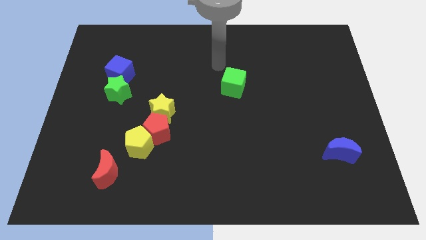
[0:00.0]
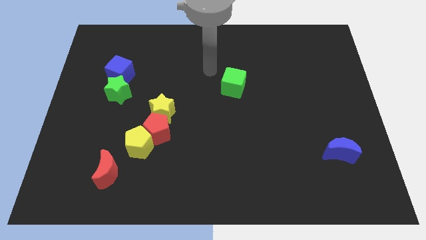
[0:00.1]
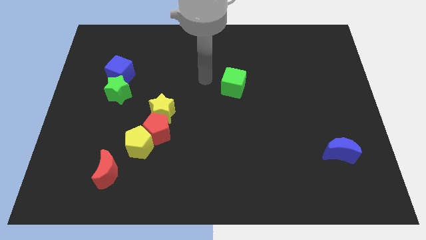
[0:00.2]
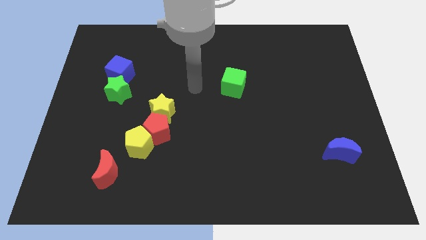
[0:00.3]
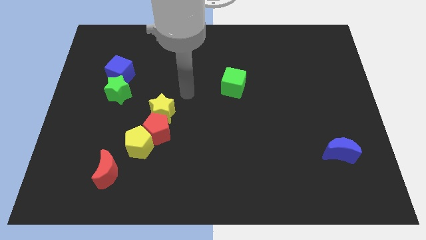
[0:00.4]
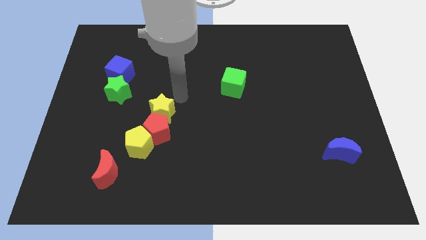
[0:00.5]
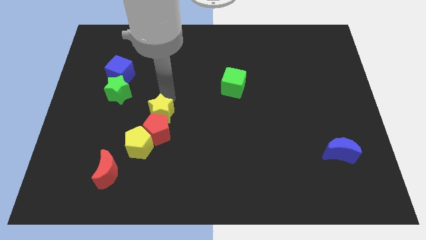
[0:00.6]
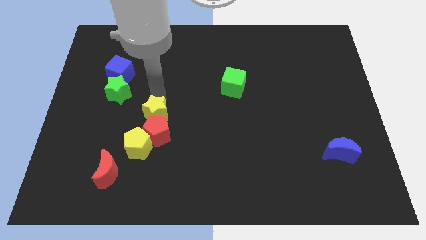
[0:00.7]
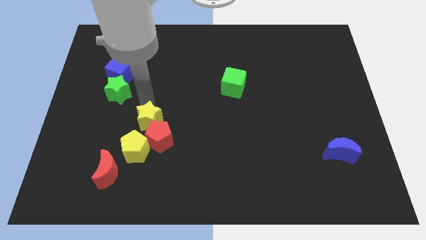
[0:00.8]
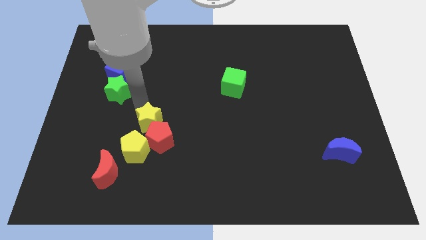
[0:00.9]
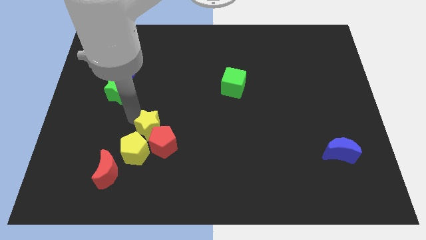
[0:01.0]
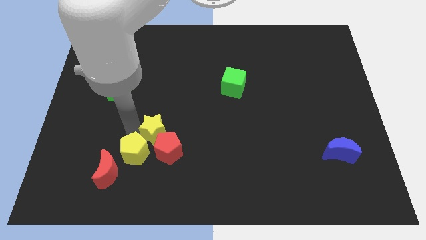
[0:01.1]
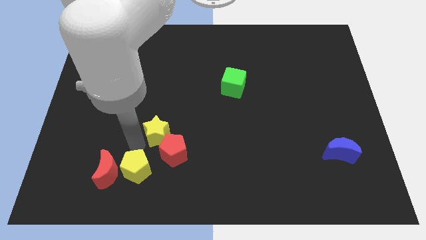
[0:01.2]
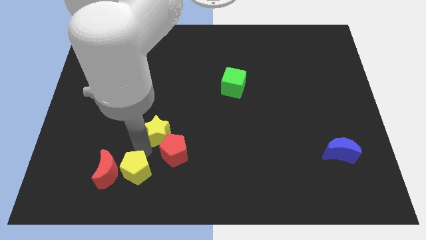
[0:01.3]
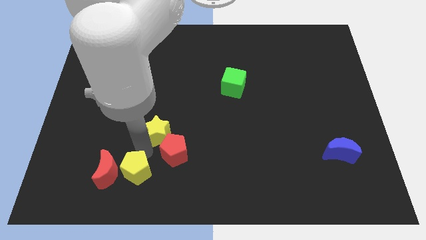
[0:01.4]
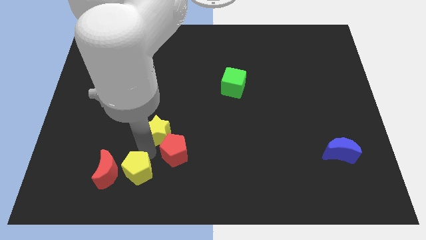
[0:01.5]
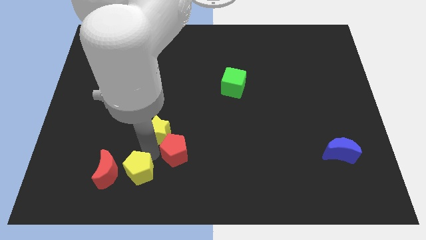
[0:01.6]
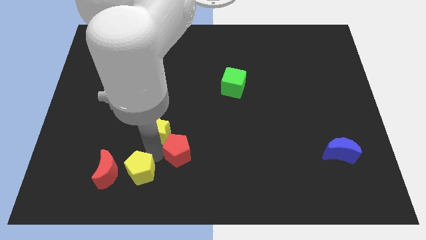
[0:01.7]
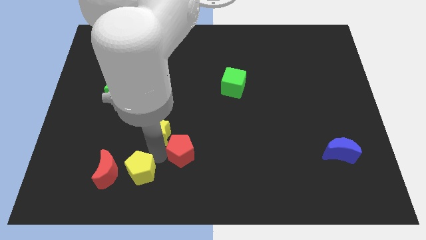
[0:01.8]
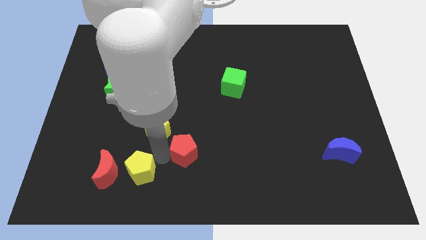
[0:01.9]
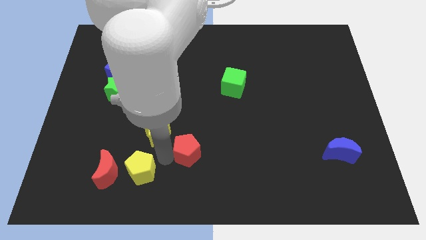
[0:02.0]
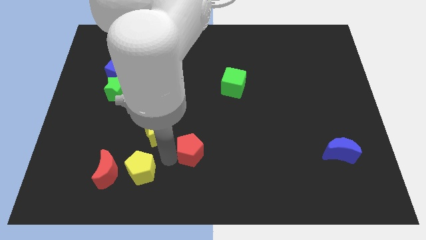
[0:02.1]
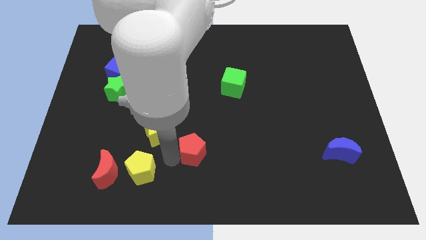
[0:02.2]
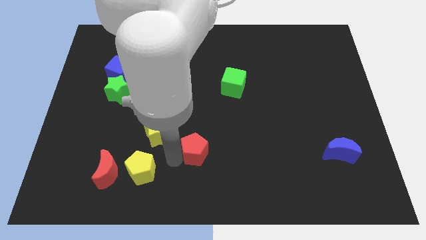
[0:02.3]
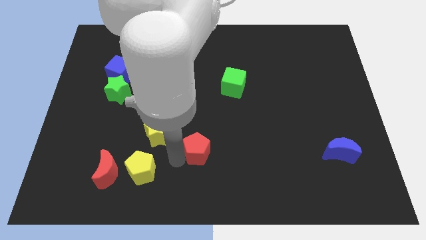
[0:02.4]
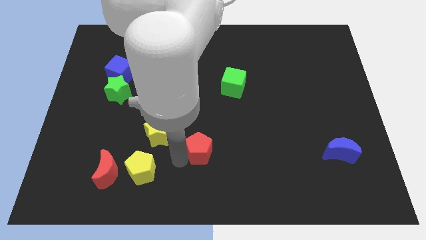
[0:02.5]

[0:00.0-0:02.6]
pull the red pentagon apart from the yellow pentagon and yellow star

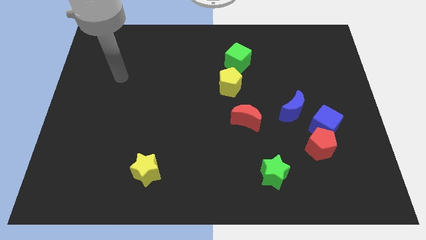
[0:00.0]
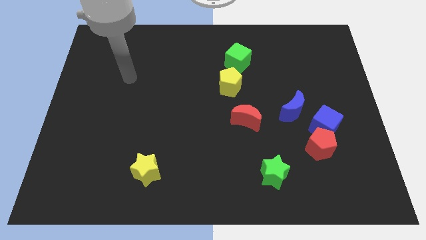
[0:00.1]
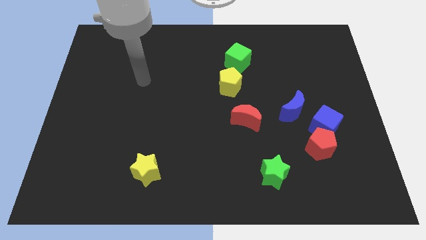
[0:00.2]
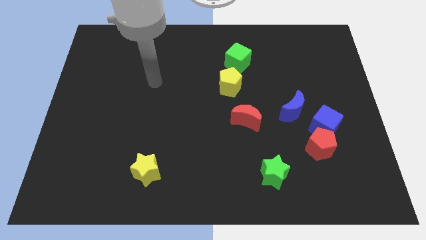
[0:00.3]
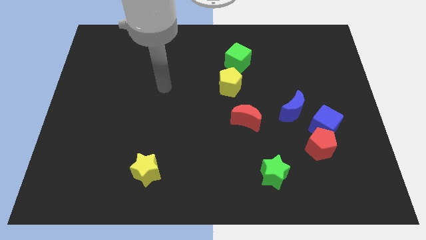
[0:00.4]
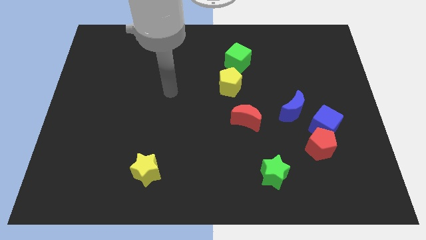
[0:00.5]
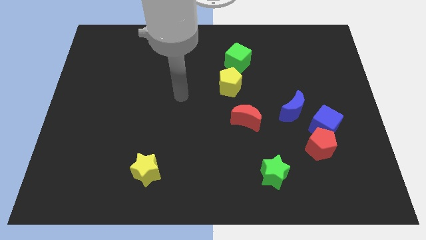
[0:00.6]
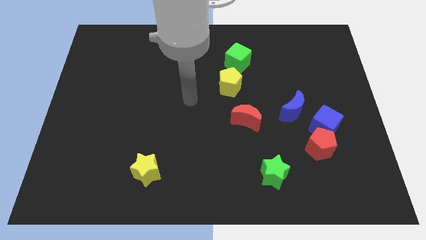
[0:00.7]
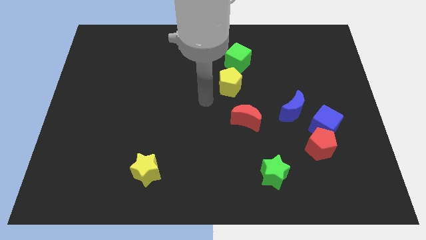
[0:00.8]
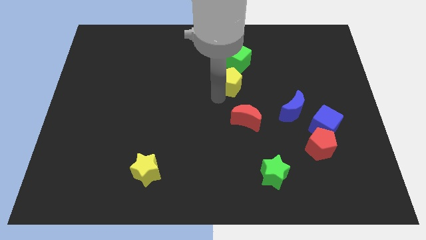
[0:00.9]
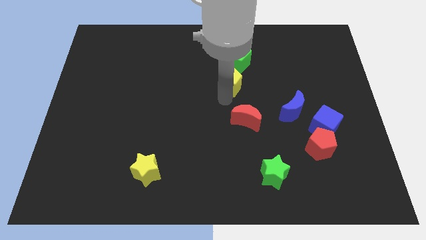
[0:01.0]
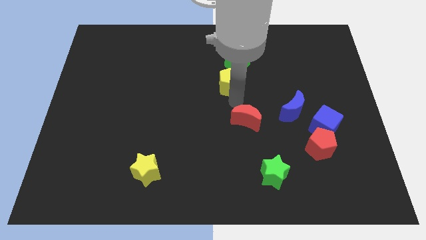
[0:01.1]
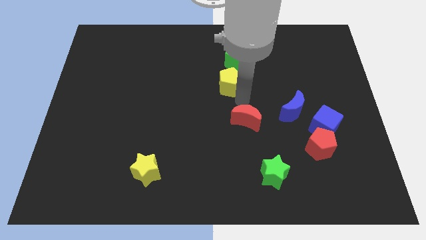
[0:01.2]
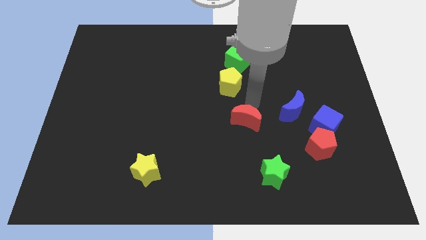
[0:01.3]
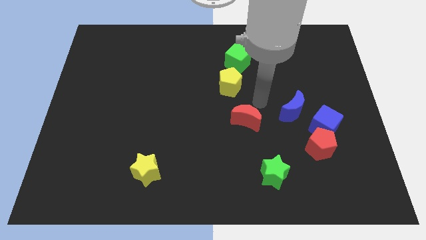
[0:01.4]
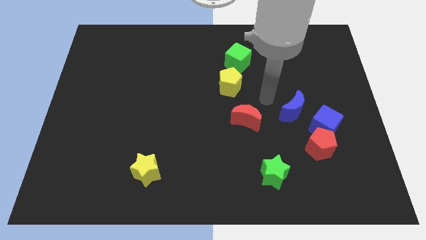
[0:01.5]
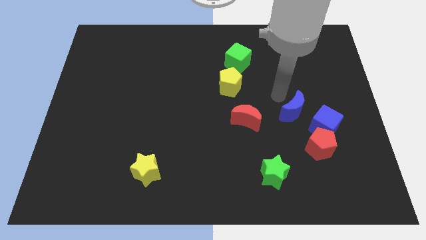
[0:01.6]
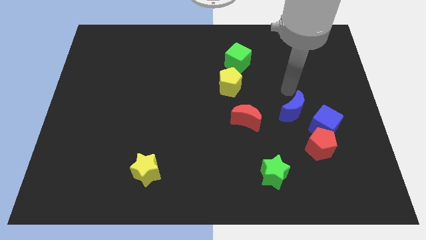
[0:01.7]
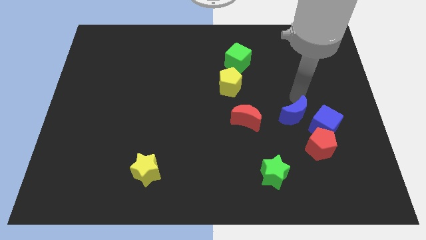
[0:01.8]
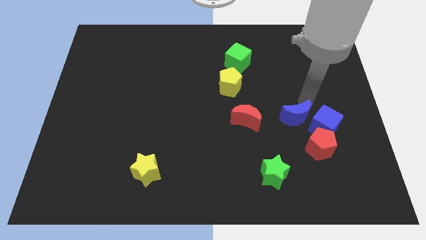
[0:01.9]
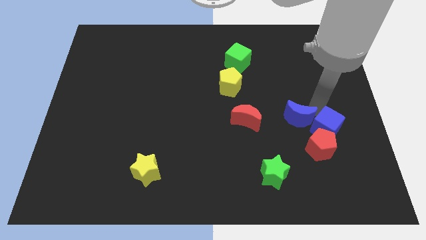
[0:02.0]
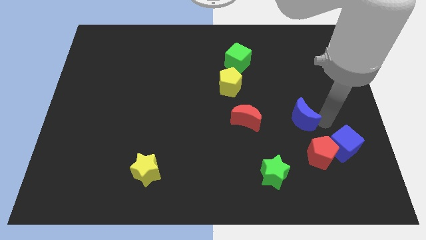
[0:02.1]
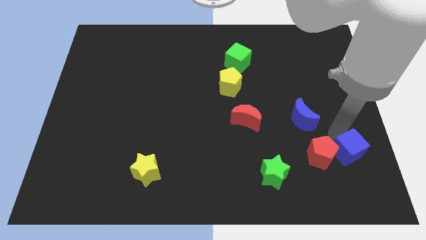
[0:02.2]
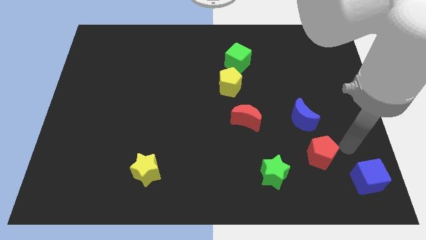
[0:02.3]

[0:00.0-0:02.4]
separate the red pentagon from the blue cube

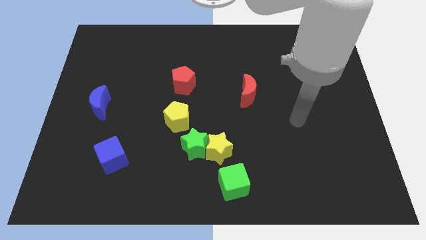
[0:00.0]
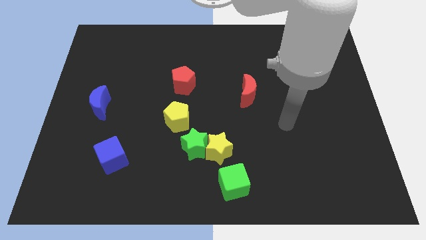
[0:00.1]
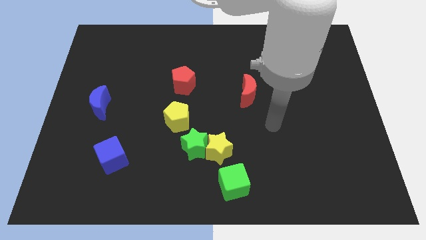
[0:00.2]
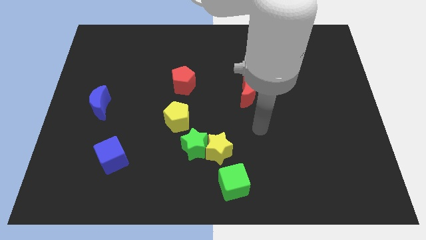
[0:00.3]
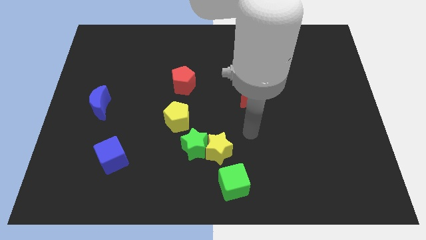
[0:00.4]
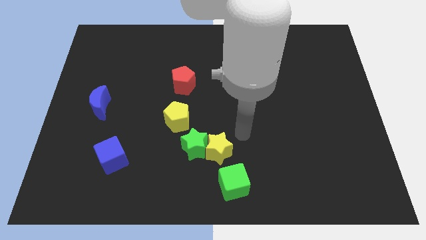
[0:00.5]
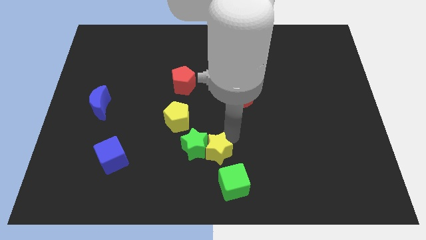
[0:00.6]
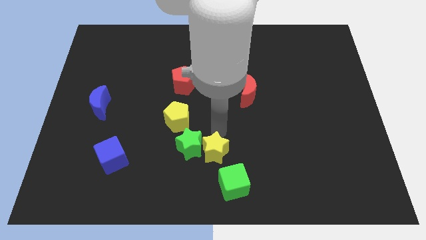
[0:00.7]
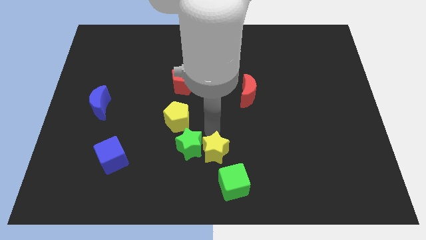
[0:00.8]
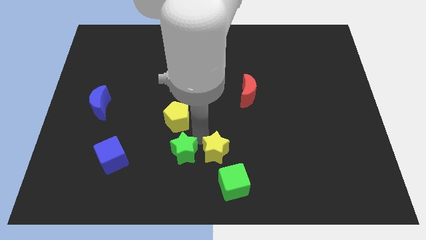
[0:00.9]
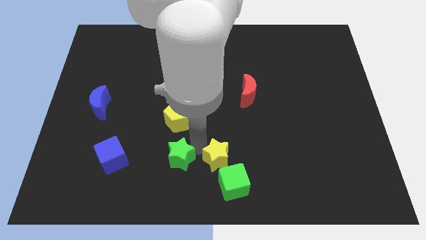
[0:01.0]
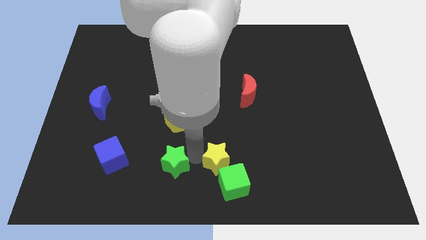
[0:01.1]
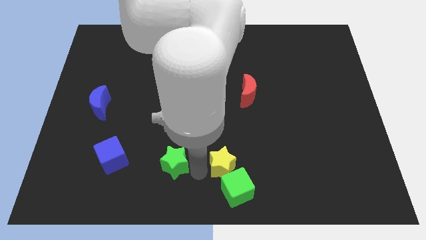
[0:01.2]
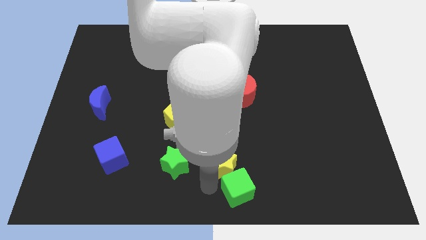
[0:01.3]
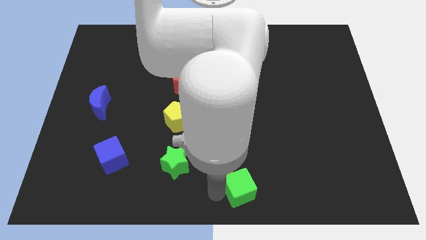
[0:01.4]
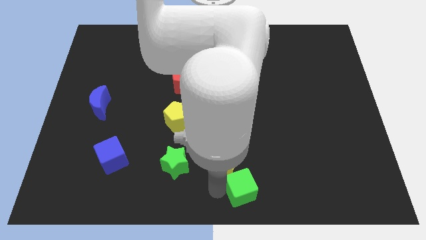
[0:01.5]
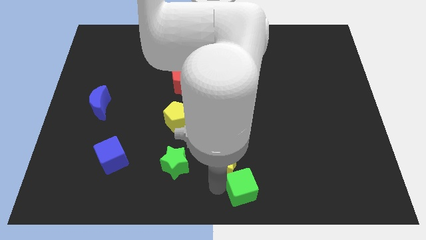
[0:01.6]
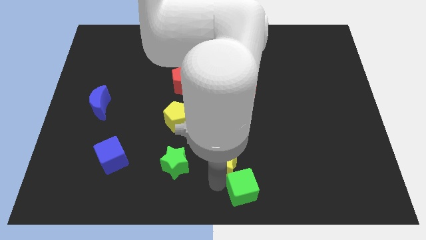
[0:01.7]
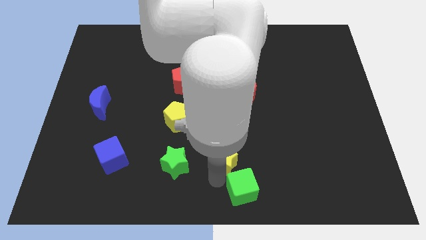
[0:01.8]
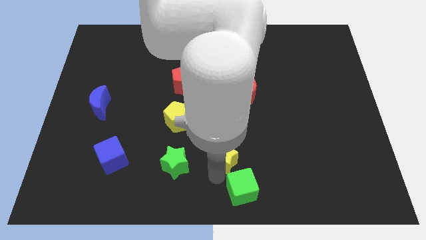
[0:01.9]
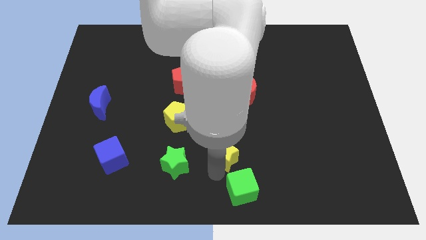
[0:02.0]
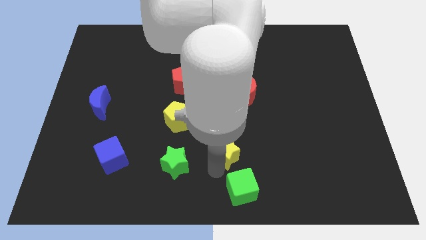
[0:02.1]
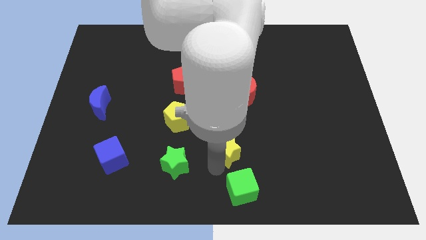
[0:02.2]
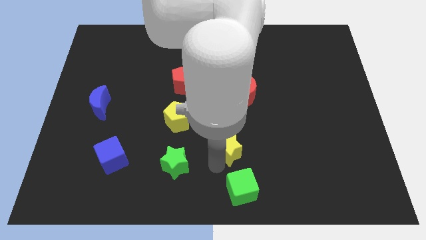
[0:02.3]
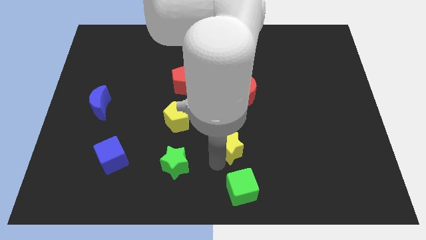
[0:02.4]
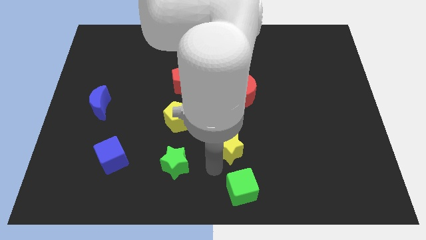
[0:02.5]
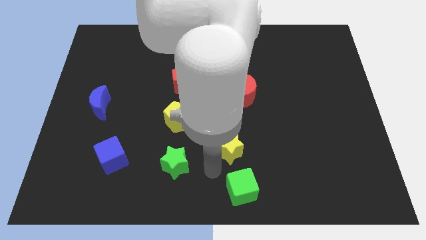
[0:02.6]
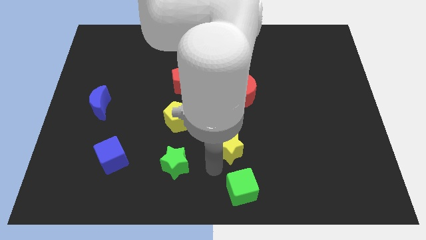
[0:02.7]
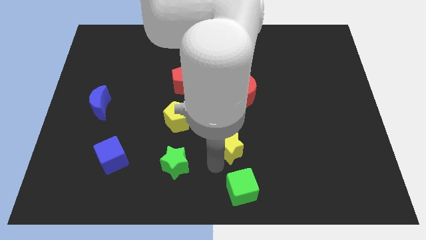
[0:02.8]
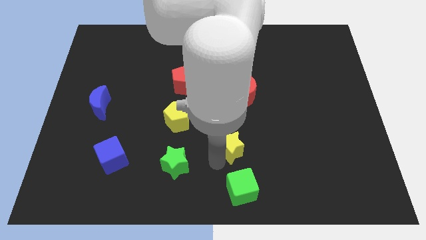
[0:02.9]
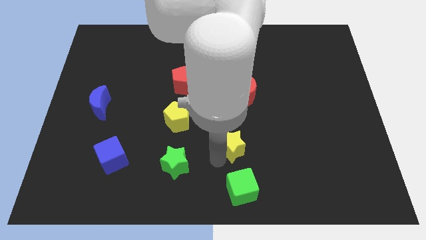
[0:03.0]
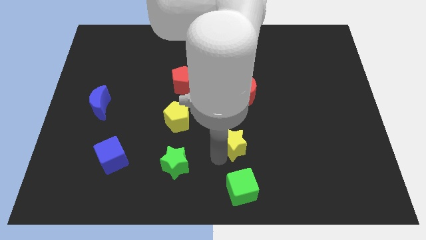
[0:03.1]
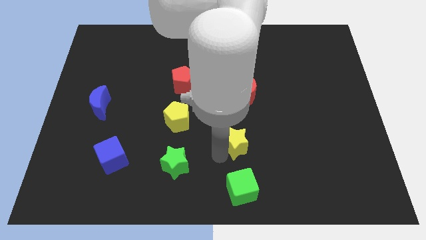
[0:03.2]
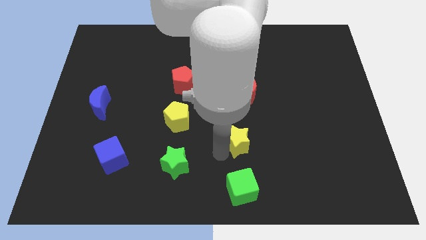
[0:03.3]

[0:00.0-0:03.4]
separate the yellow star from the green star and green cube

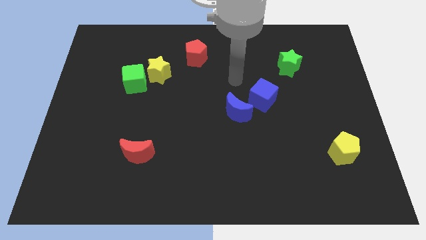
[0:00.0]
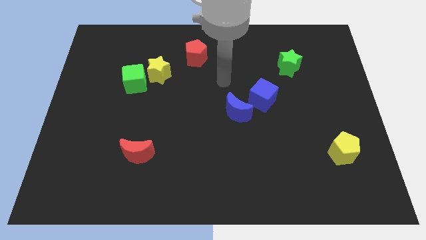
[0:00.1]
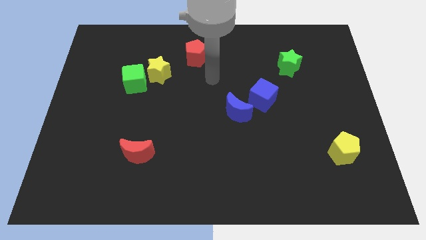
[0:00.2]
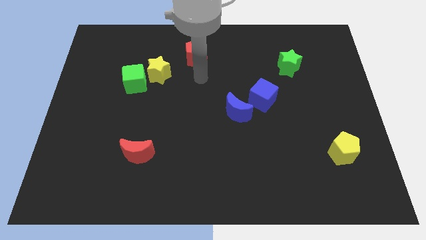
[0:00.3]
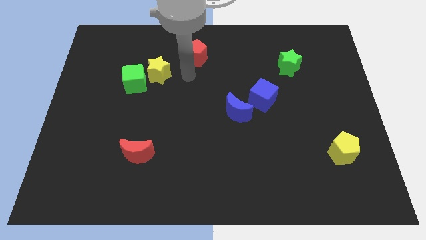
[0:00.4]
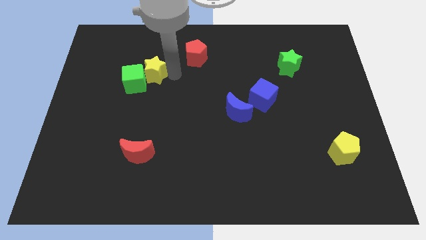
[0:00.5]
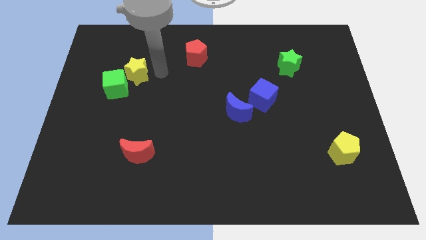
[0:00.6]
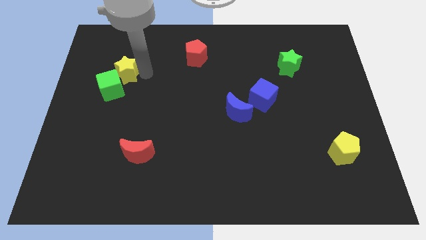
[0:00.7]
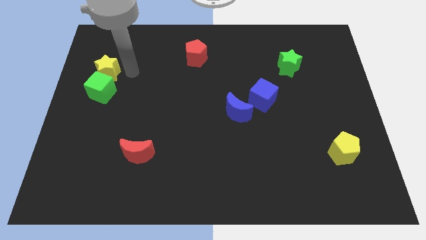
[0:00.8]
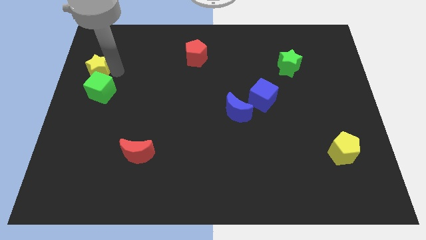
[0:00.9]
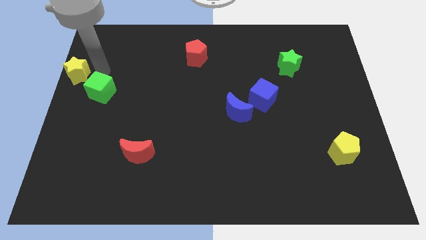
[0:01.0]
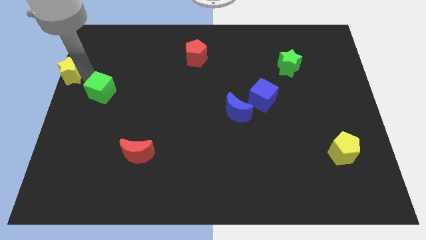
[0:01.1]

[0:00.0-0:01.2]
move the green cube away from the yellow star
